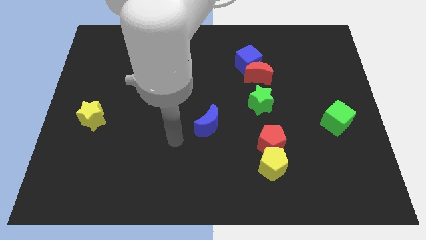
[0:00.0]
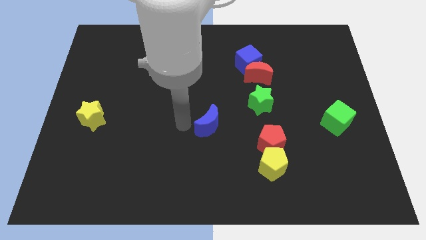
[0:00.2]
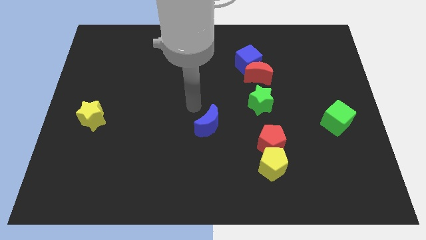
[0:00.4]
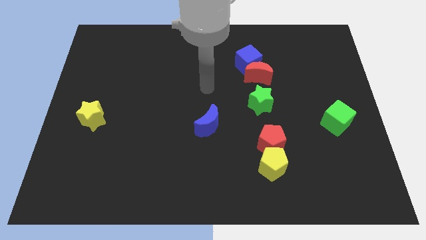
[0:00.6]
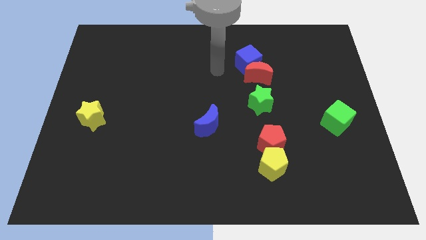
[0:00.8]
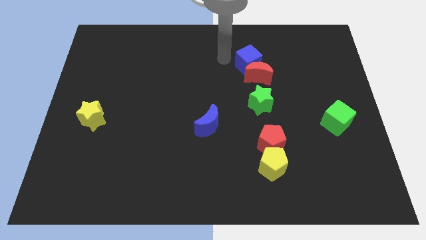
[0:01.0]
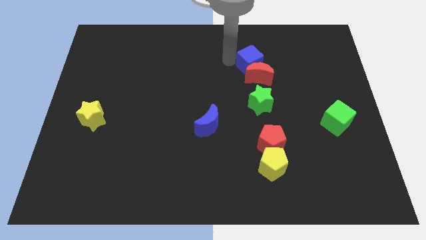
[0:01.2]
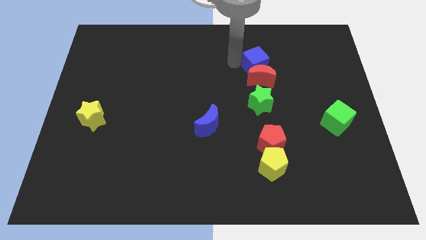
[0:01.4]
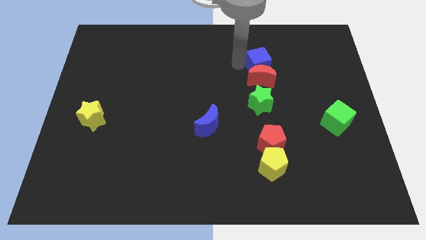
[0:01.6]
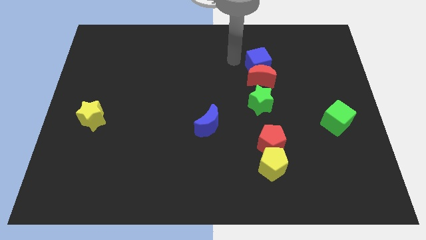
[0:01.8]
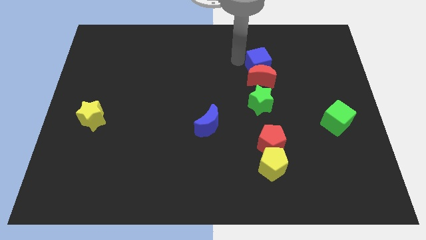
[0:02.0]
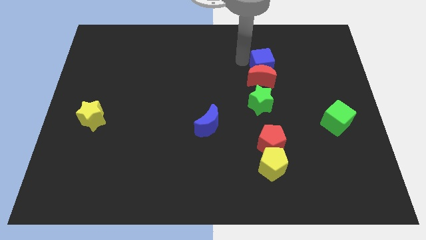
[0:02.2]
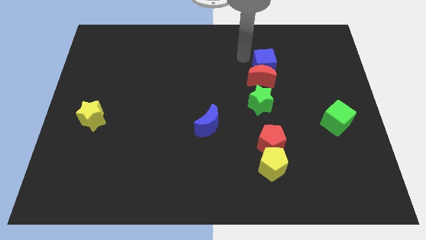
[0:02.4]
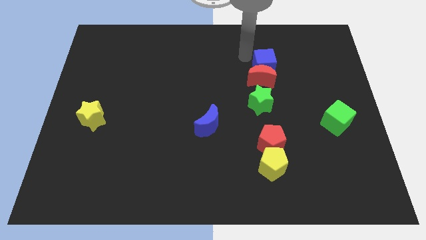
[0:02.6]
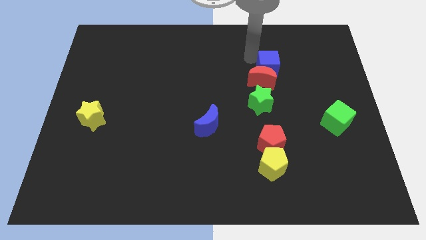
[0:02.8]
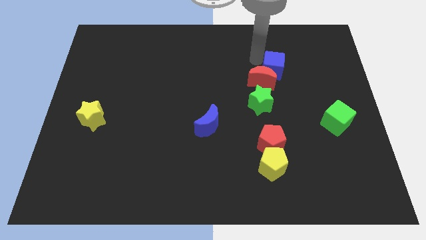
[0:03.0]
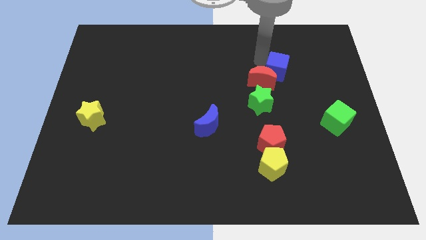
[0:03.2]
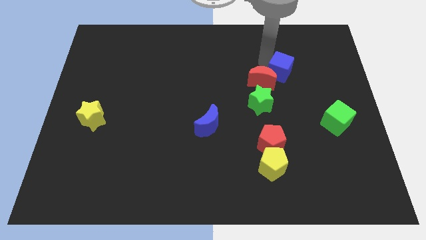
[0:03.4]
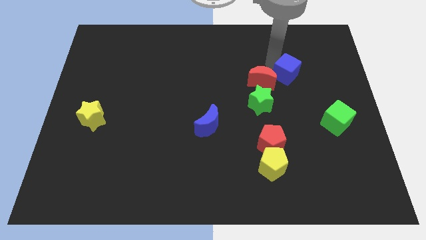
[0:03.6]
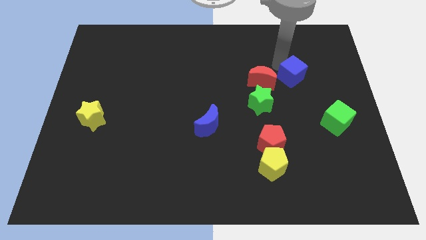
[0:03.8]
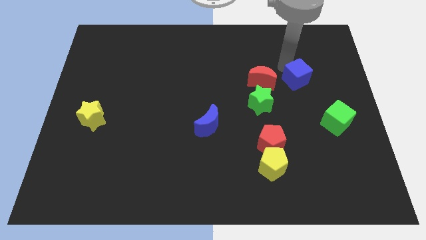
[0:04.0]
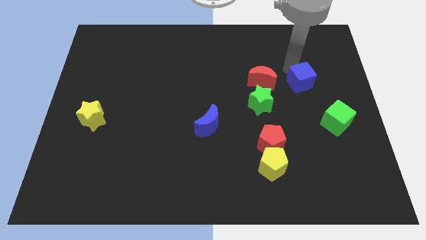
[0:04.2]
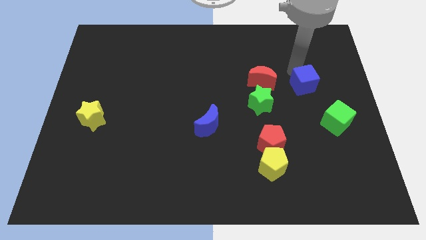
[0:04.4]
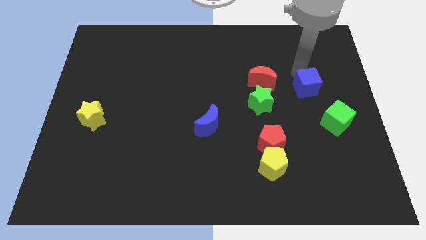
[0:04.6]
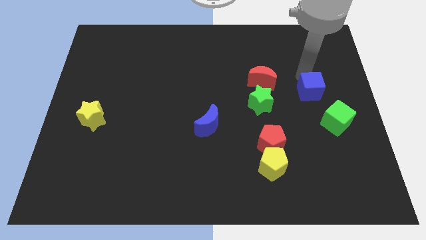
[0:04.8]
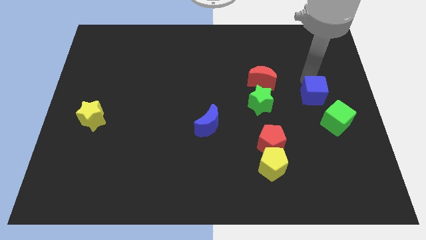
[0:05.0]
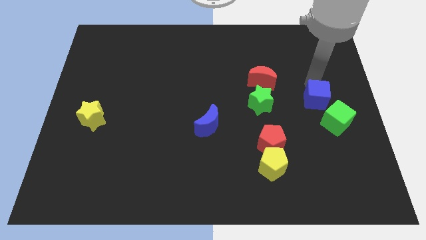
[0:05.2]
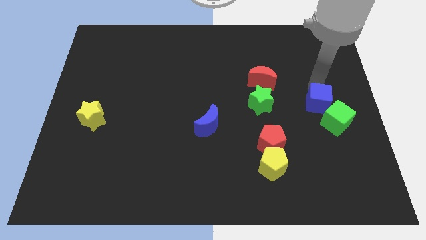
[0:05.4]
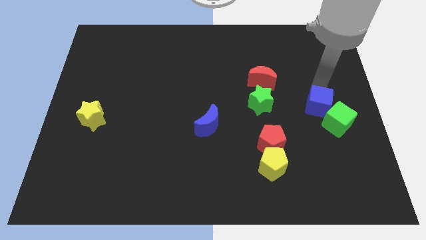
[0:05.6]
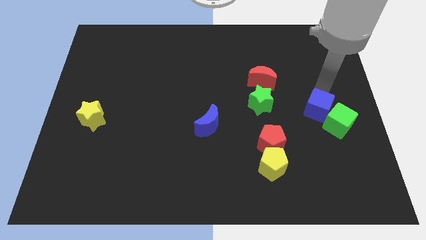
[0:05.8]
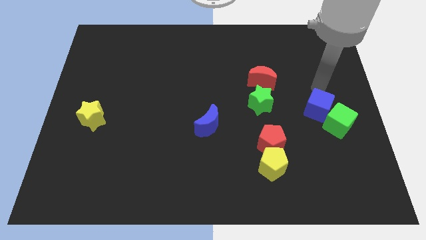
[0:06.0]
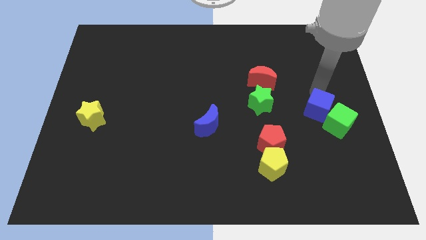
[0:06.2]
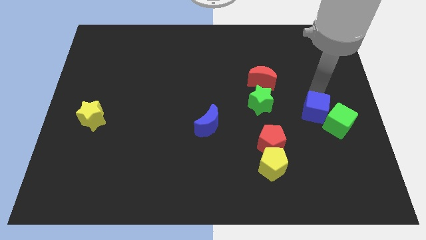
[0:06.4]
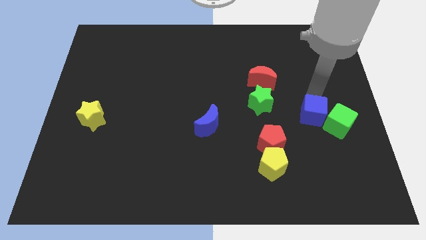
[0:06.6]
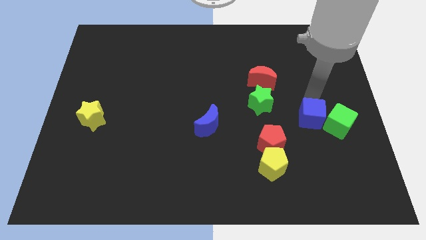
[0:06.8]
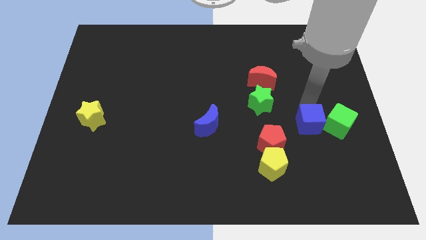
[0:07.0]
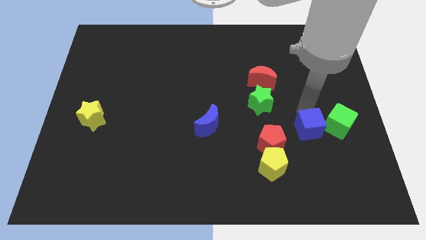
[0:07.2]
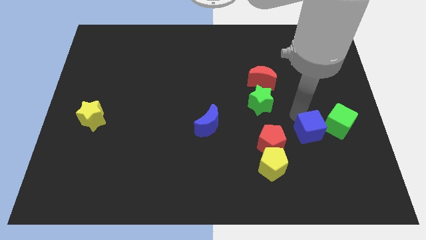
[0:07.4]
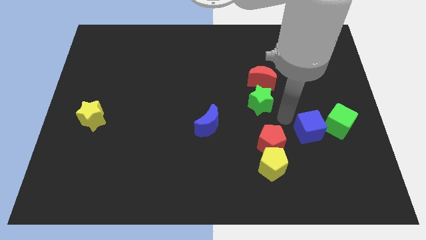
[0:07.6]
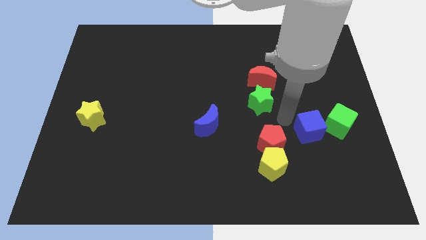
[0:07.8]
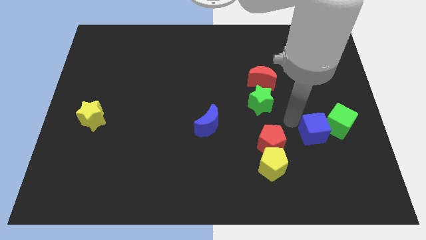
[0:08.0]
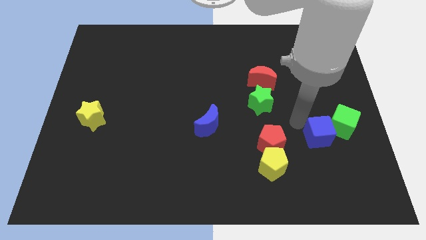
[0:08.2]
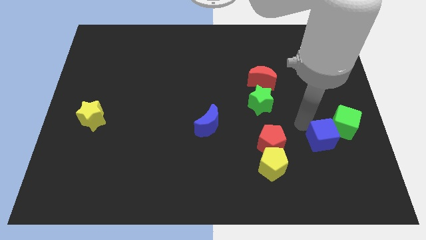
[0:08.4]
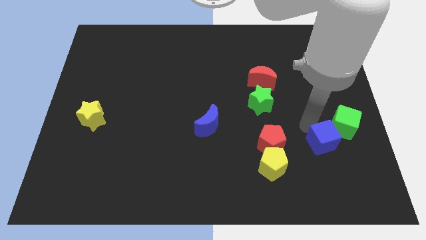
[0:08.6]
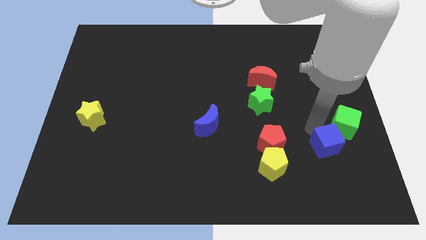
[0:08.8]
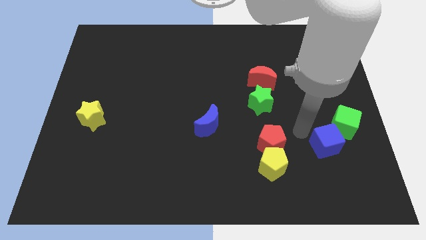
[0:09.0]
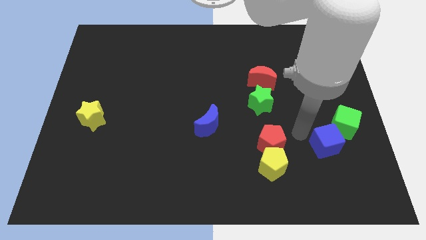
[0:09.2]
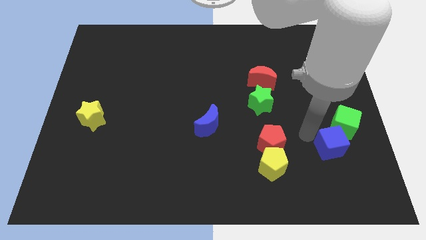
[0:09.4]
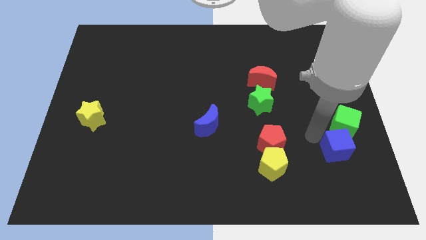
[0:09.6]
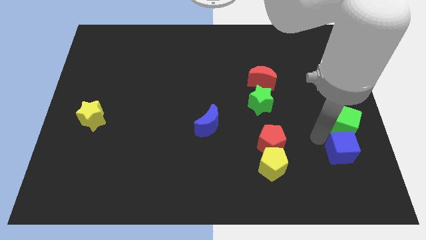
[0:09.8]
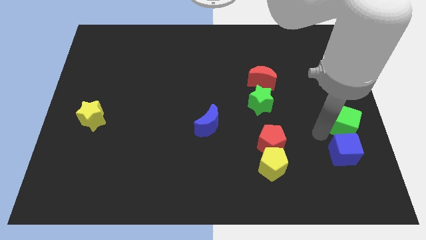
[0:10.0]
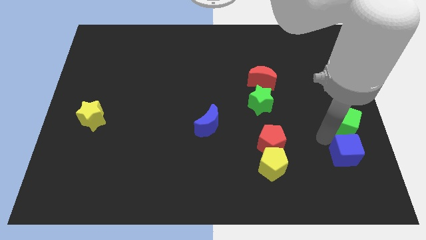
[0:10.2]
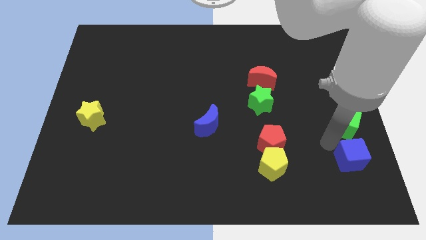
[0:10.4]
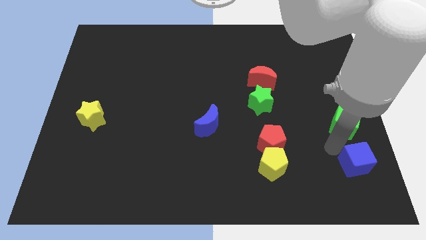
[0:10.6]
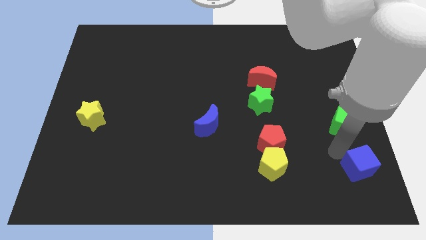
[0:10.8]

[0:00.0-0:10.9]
push the blue cube to the lower right corner
